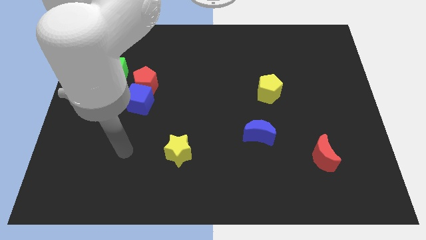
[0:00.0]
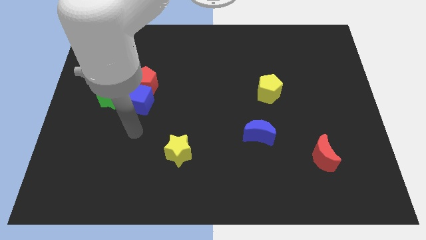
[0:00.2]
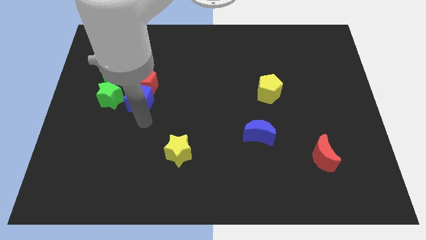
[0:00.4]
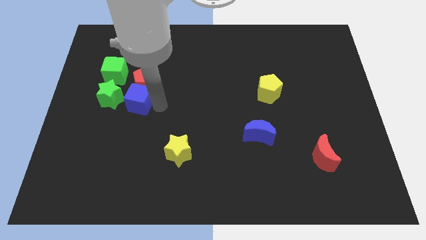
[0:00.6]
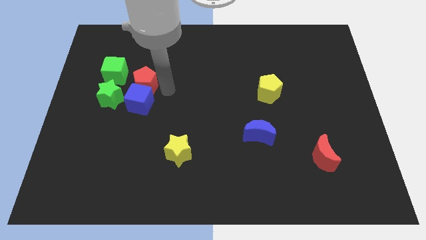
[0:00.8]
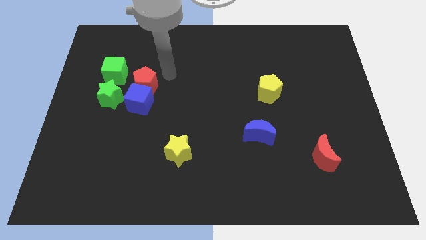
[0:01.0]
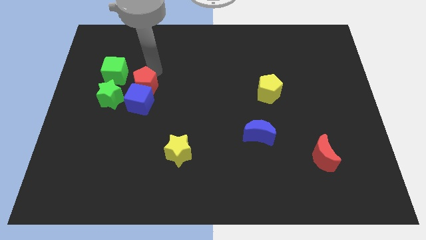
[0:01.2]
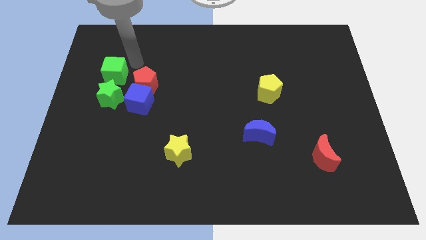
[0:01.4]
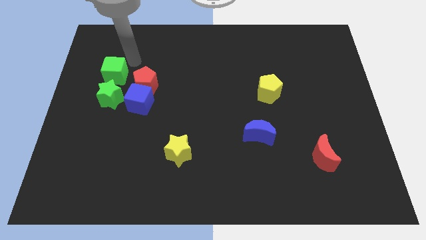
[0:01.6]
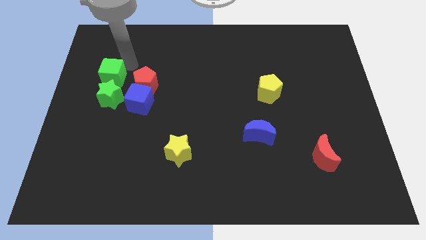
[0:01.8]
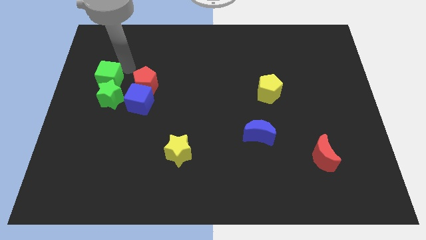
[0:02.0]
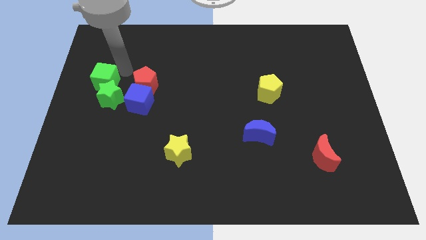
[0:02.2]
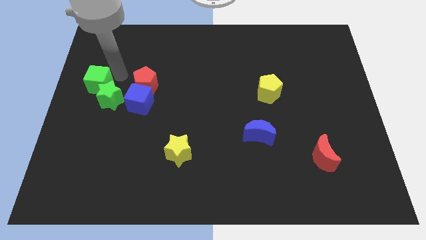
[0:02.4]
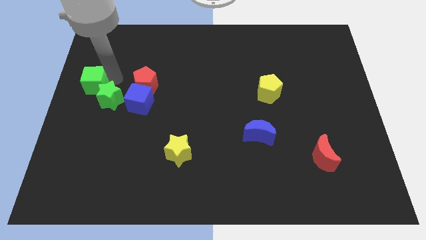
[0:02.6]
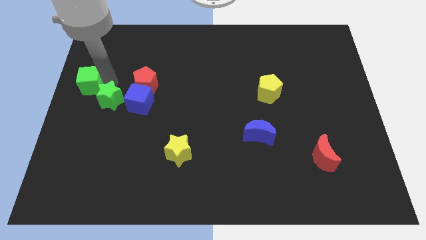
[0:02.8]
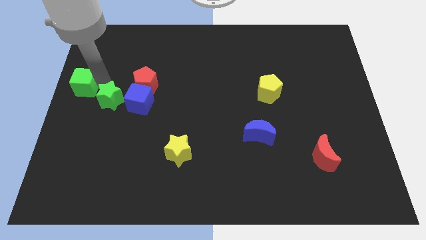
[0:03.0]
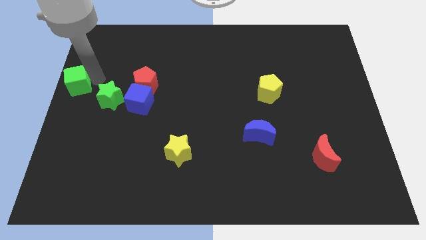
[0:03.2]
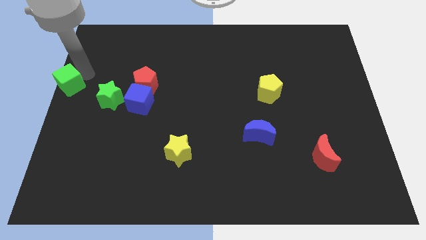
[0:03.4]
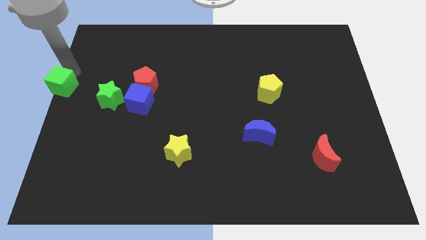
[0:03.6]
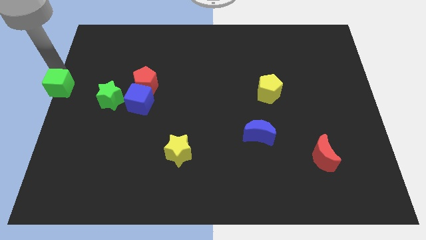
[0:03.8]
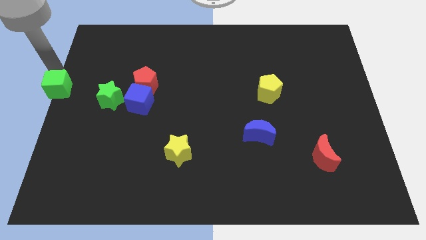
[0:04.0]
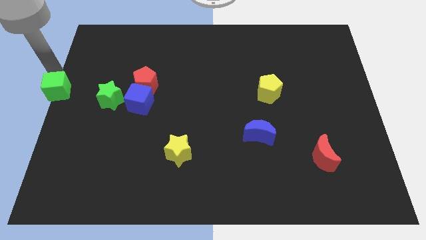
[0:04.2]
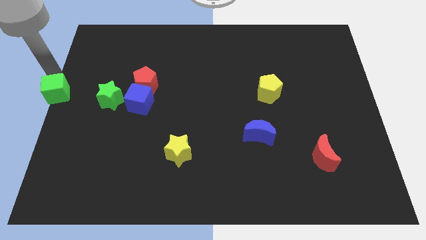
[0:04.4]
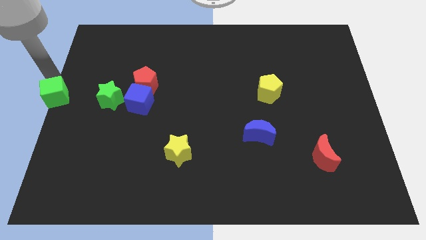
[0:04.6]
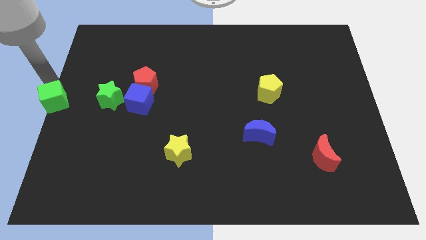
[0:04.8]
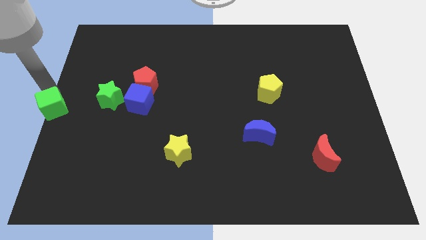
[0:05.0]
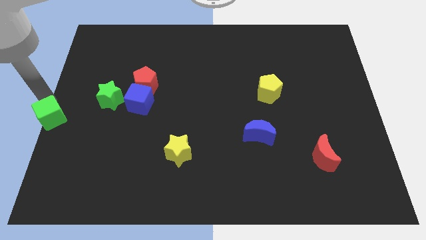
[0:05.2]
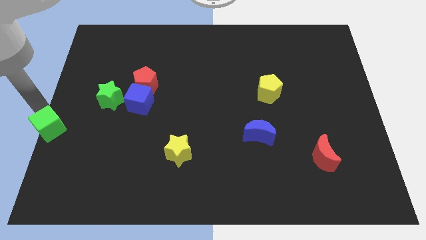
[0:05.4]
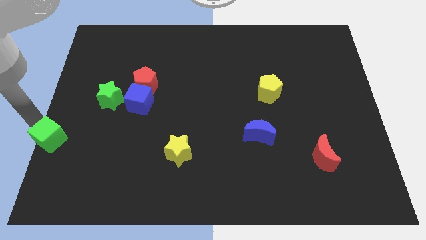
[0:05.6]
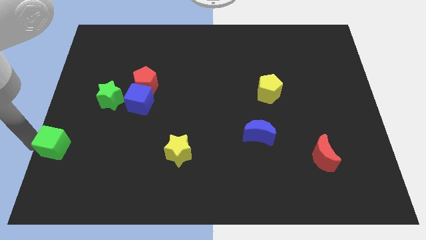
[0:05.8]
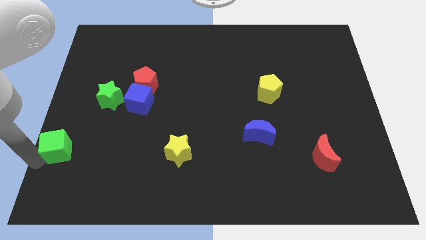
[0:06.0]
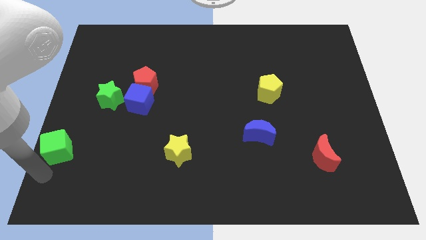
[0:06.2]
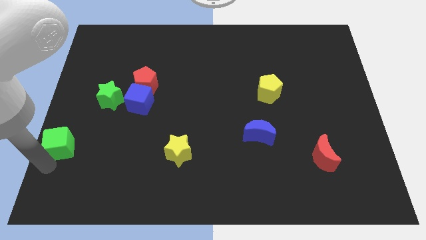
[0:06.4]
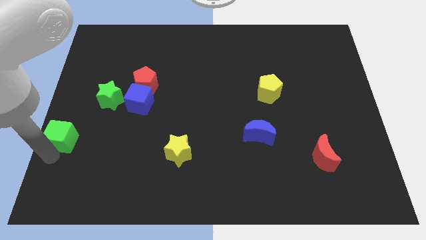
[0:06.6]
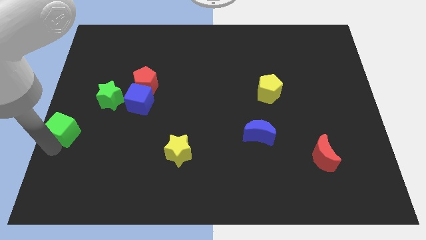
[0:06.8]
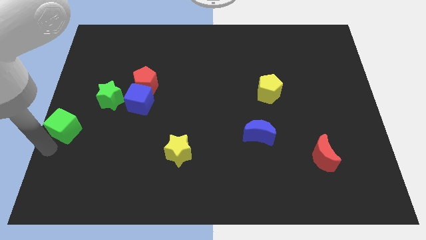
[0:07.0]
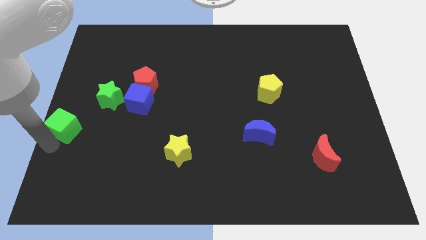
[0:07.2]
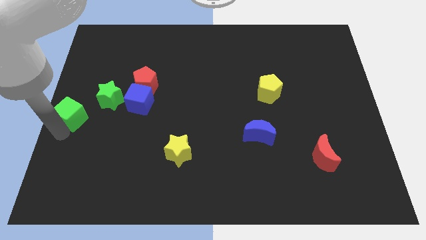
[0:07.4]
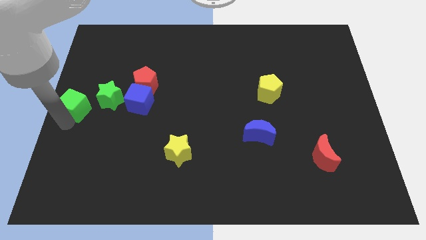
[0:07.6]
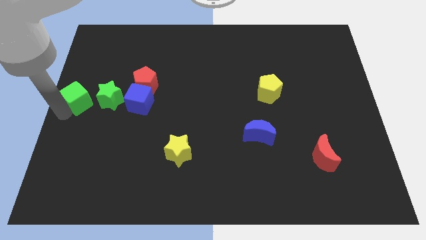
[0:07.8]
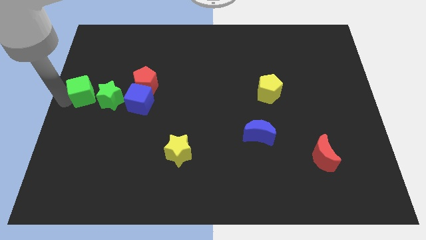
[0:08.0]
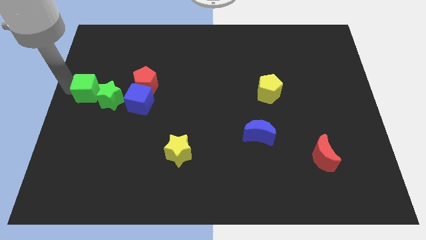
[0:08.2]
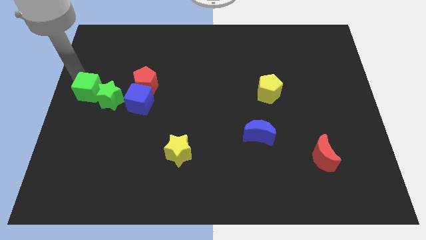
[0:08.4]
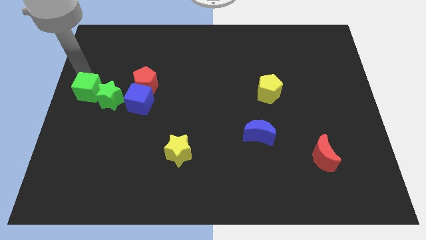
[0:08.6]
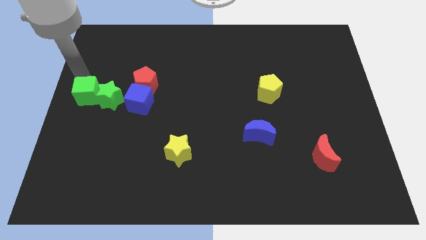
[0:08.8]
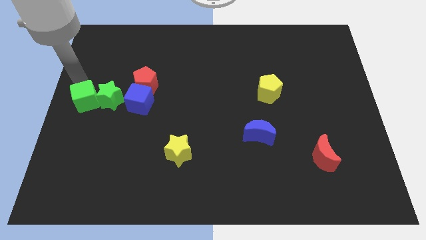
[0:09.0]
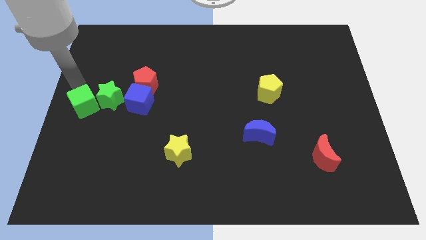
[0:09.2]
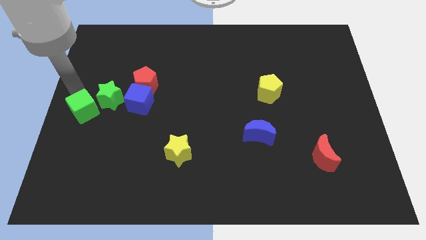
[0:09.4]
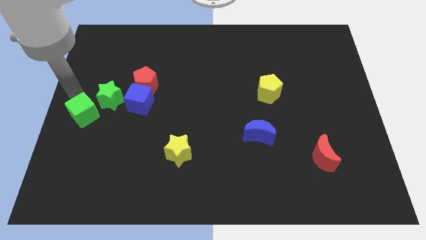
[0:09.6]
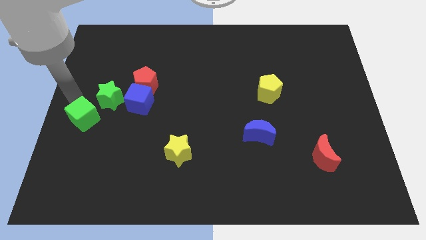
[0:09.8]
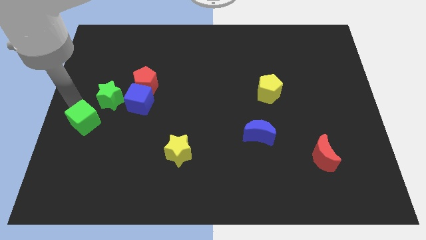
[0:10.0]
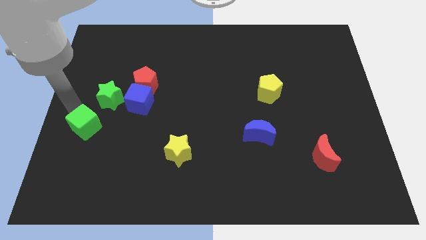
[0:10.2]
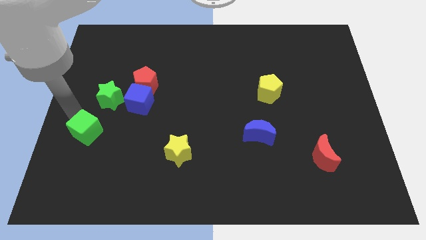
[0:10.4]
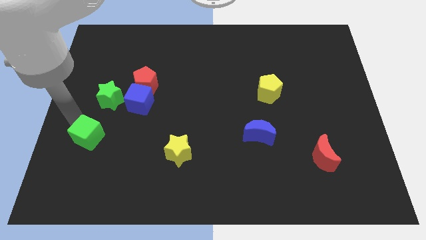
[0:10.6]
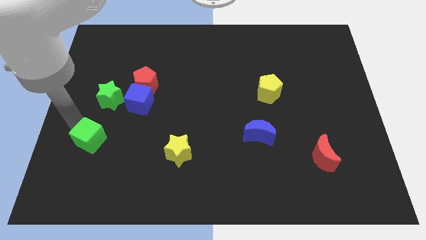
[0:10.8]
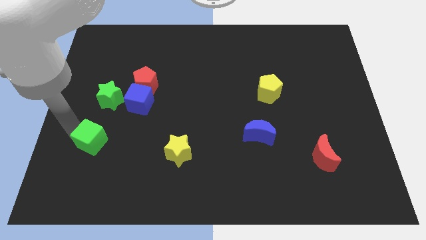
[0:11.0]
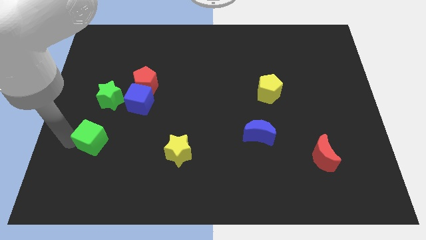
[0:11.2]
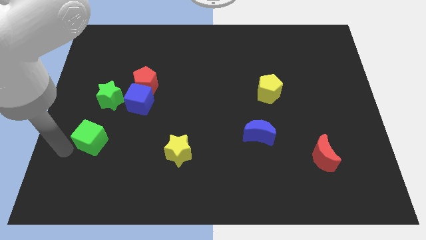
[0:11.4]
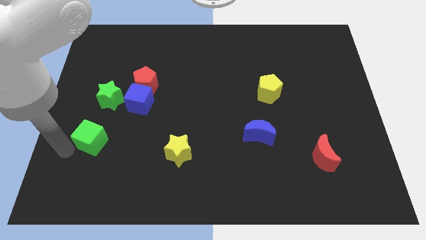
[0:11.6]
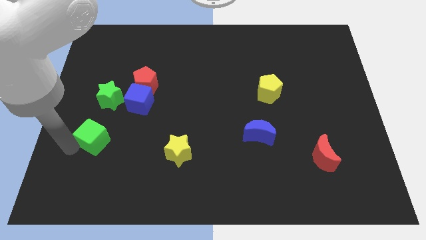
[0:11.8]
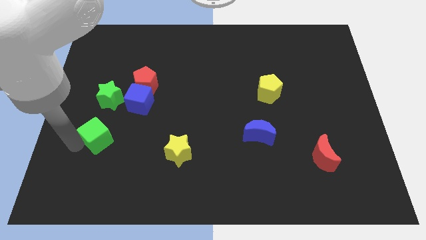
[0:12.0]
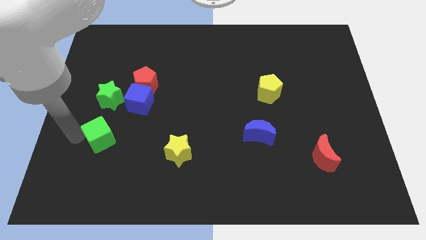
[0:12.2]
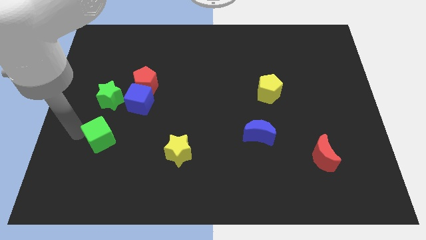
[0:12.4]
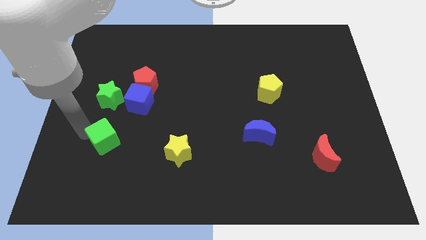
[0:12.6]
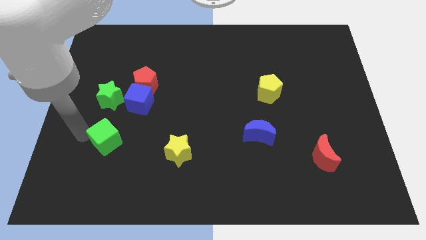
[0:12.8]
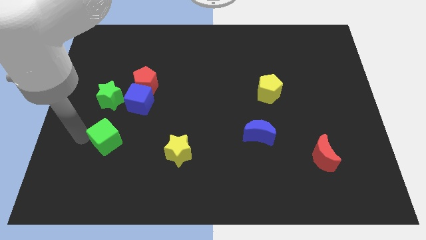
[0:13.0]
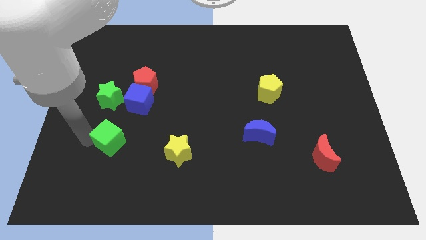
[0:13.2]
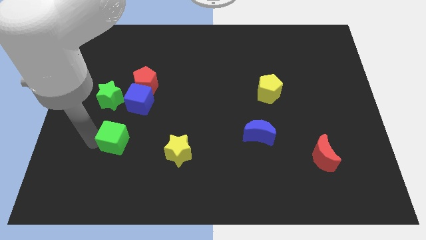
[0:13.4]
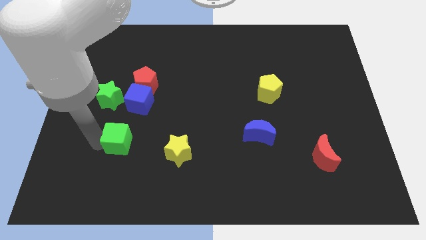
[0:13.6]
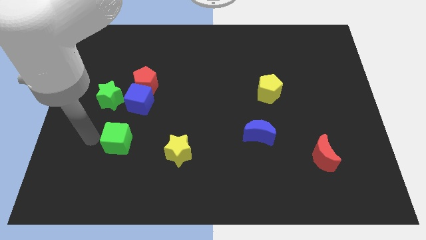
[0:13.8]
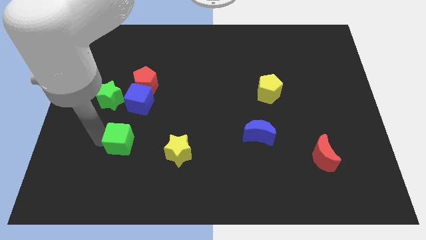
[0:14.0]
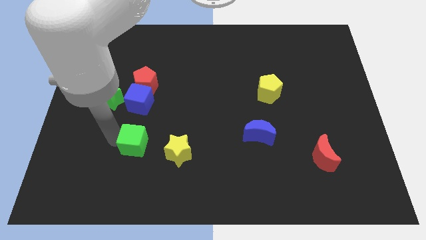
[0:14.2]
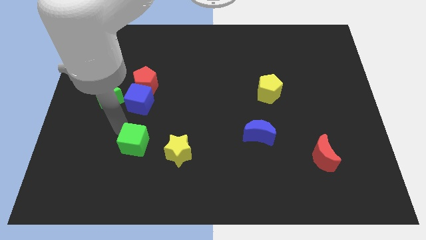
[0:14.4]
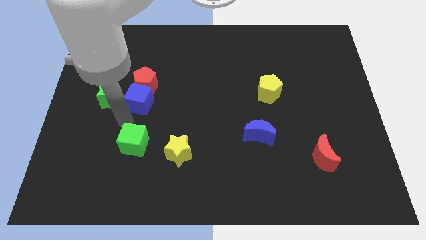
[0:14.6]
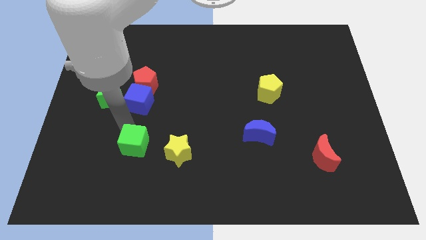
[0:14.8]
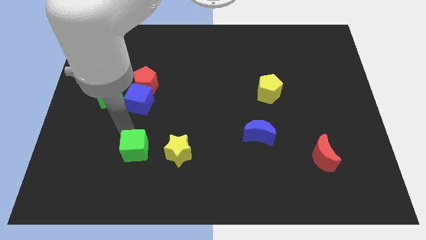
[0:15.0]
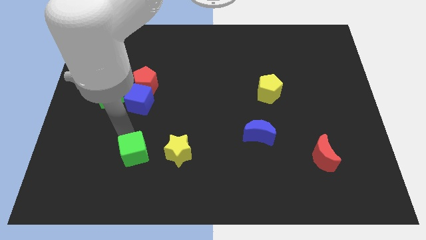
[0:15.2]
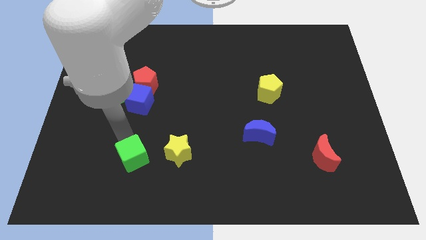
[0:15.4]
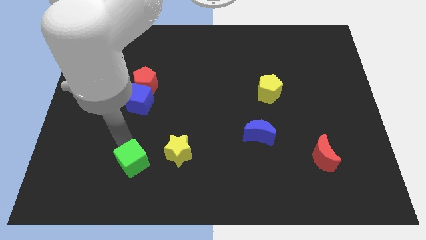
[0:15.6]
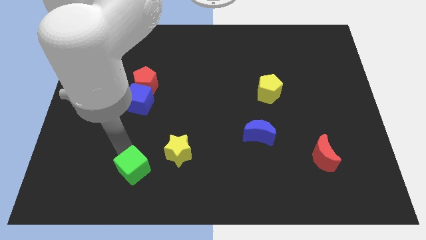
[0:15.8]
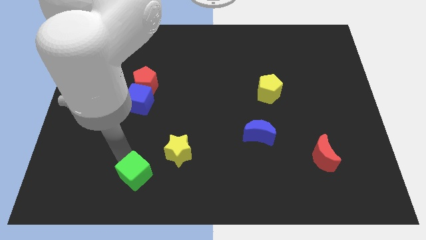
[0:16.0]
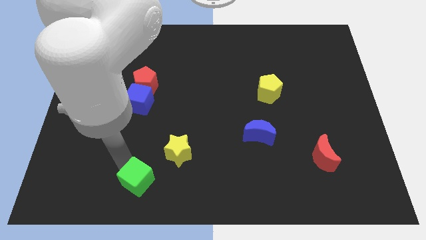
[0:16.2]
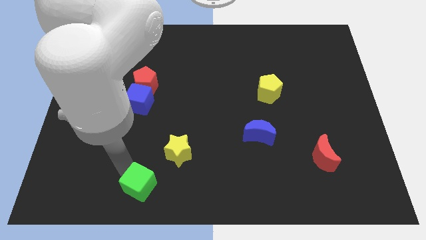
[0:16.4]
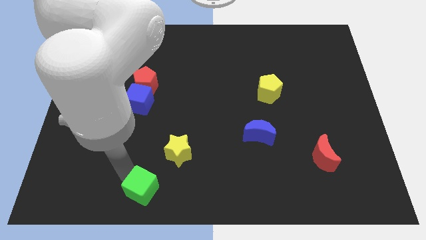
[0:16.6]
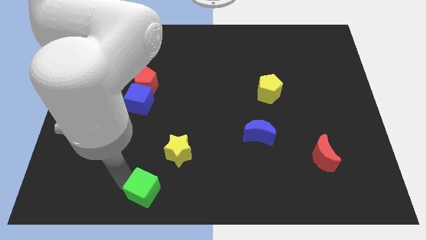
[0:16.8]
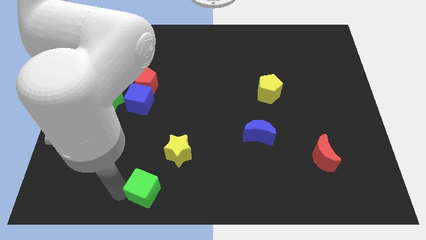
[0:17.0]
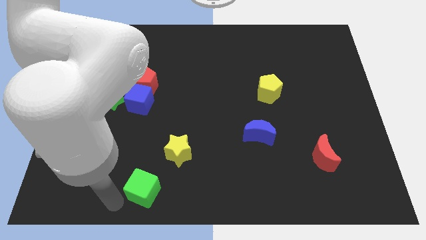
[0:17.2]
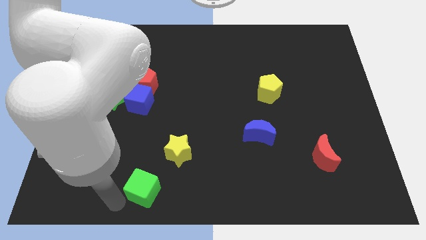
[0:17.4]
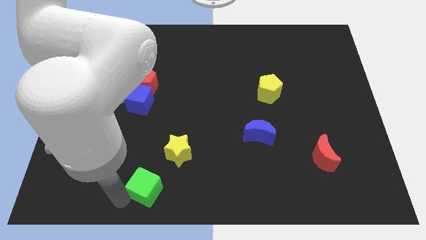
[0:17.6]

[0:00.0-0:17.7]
push the green cube to the bottom side
